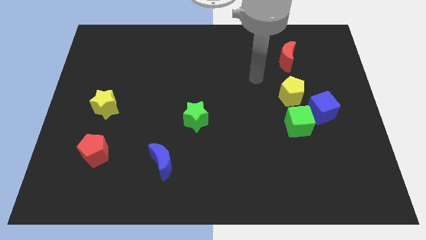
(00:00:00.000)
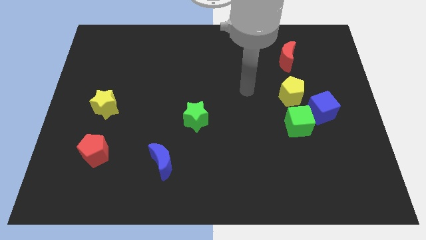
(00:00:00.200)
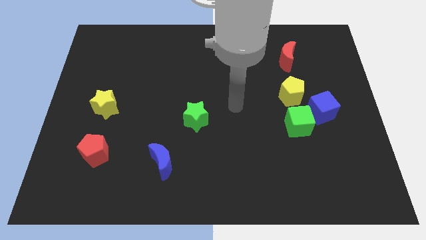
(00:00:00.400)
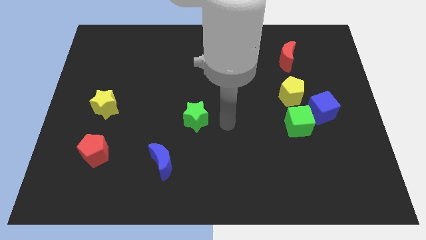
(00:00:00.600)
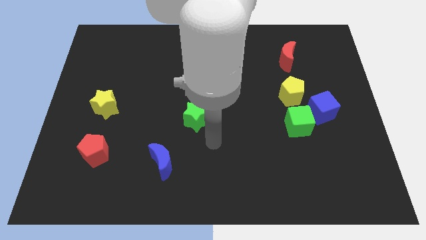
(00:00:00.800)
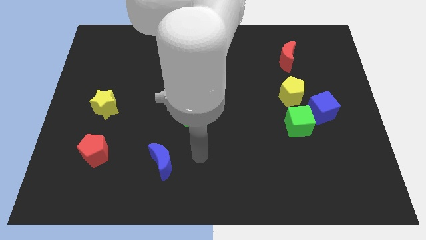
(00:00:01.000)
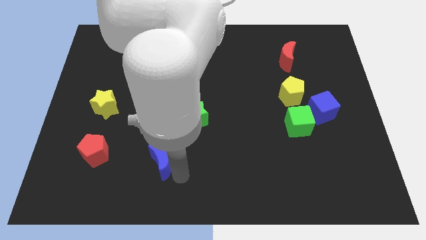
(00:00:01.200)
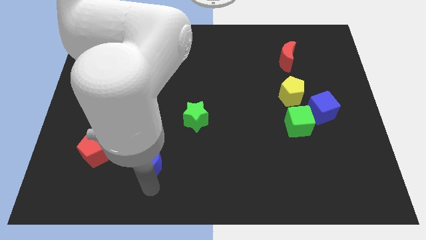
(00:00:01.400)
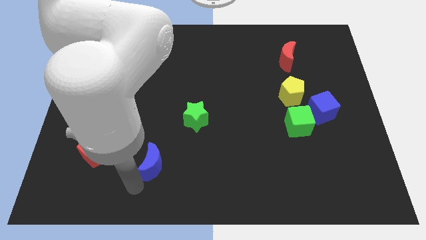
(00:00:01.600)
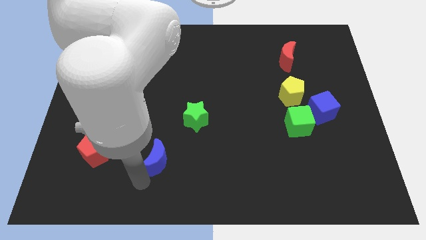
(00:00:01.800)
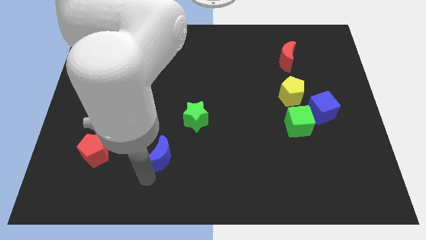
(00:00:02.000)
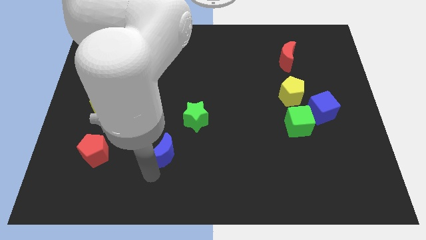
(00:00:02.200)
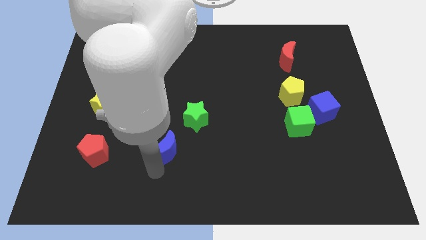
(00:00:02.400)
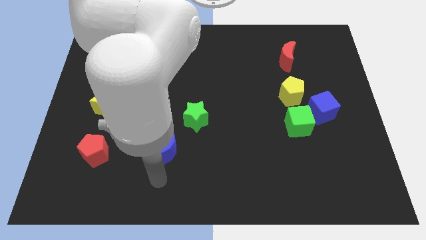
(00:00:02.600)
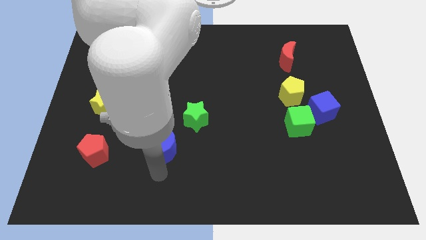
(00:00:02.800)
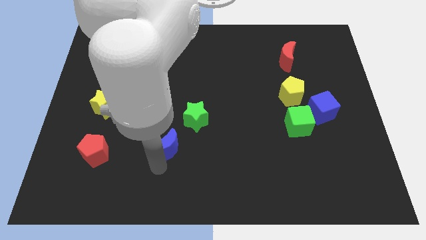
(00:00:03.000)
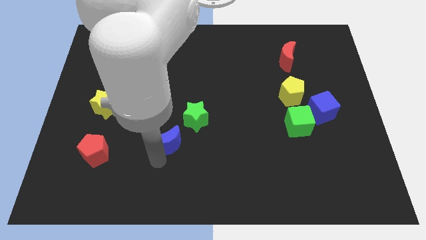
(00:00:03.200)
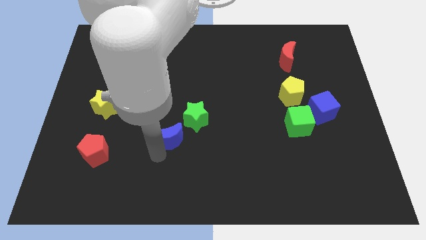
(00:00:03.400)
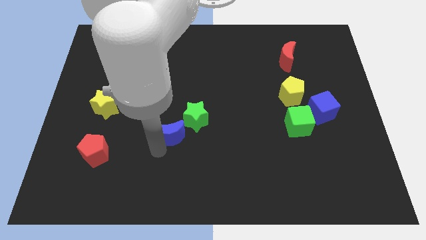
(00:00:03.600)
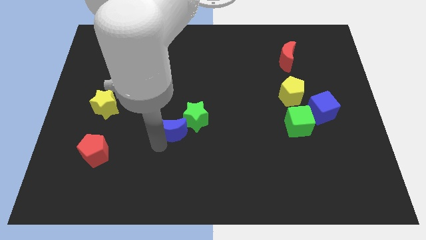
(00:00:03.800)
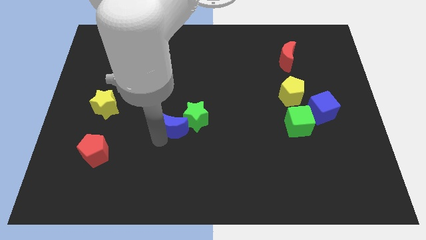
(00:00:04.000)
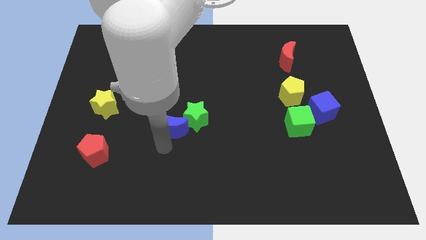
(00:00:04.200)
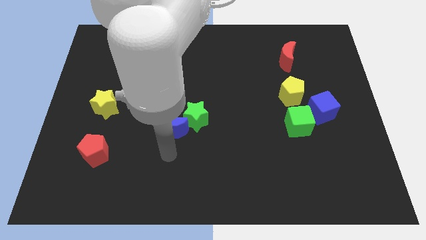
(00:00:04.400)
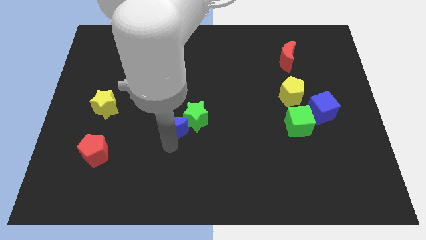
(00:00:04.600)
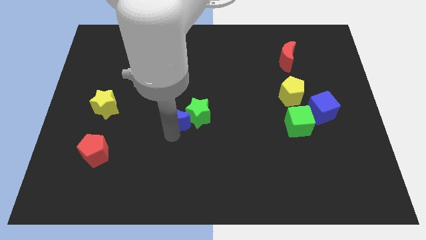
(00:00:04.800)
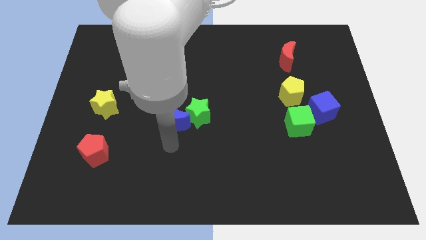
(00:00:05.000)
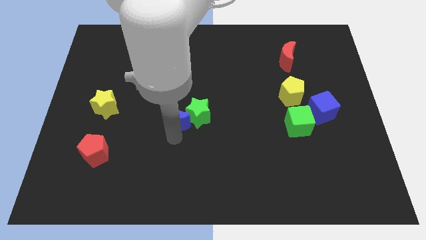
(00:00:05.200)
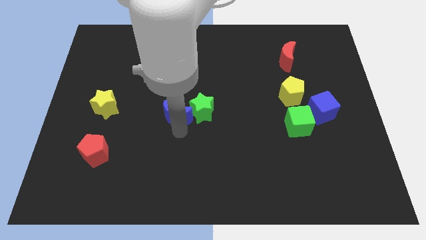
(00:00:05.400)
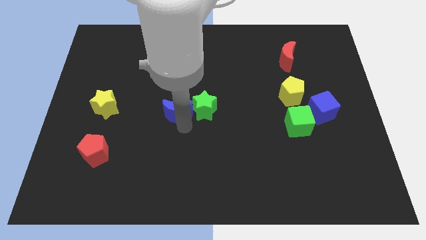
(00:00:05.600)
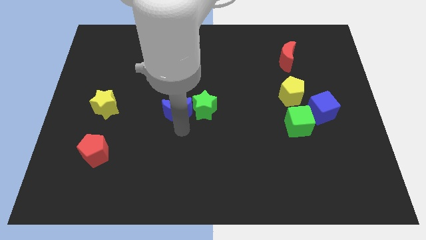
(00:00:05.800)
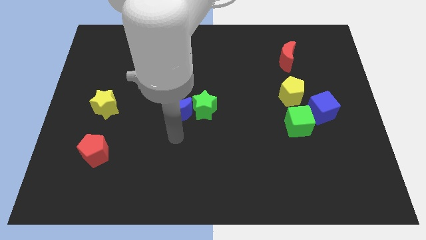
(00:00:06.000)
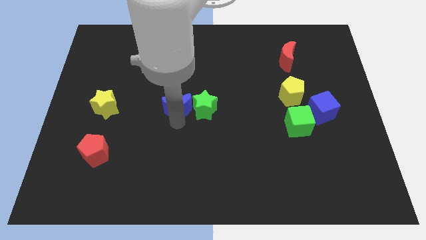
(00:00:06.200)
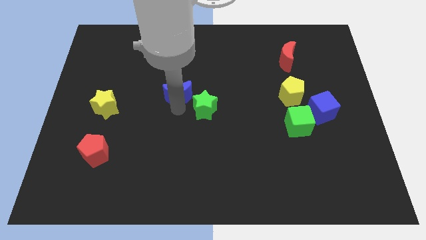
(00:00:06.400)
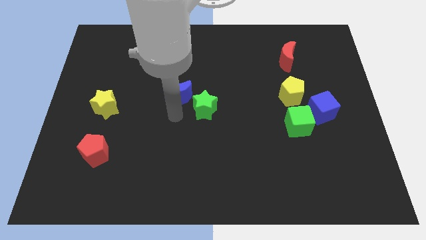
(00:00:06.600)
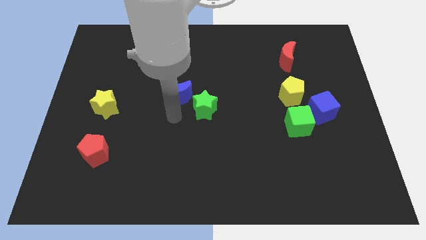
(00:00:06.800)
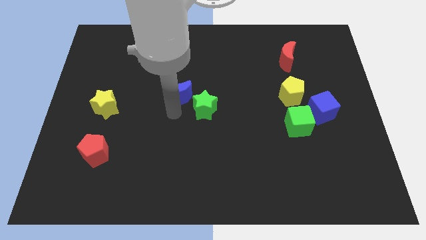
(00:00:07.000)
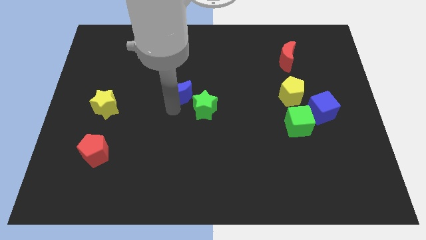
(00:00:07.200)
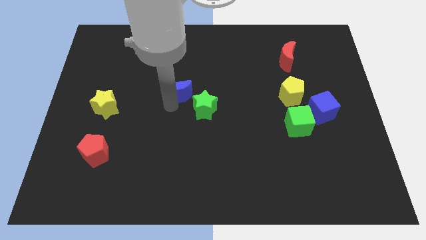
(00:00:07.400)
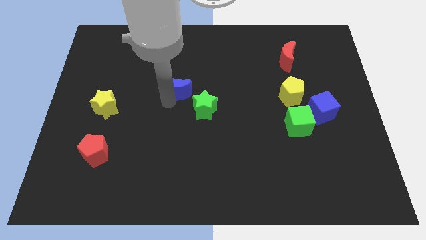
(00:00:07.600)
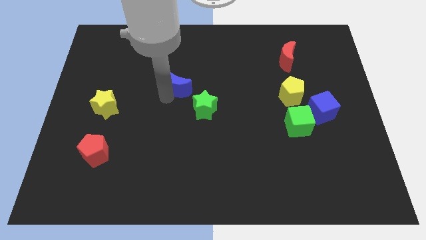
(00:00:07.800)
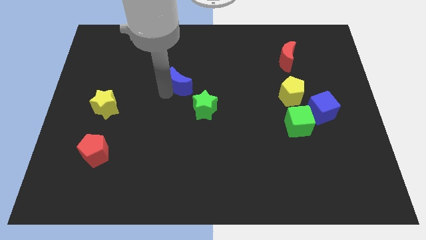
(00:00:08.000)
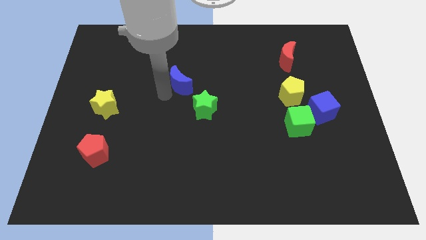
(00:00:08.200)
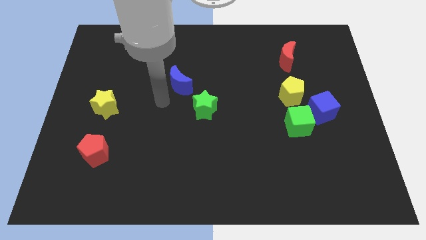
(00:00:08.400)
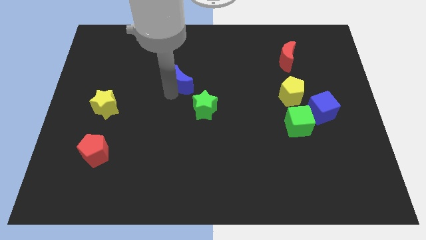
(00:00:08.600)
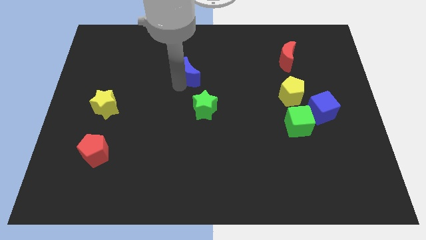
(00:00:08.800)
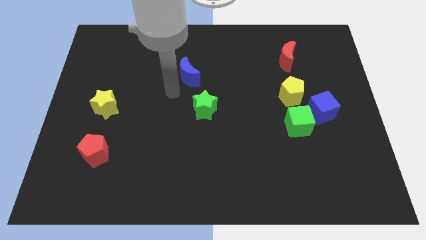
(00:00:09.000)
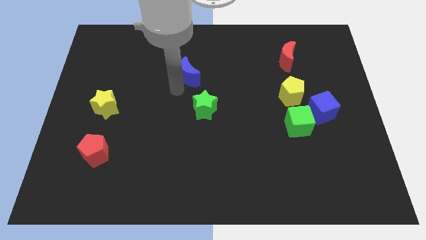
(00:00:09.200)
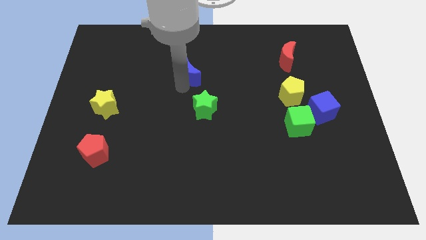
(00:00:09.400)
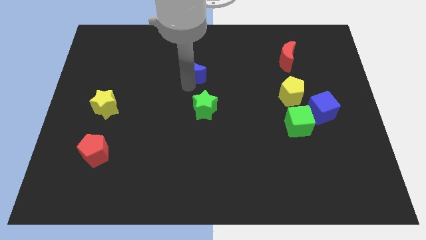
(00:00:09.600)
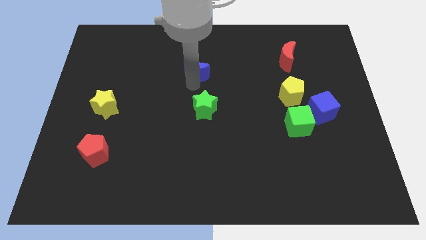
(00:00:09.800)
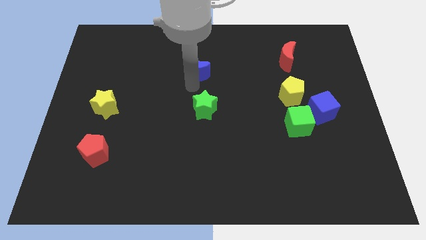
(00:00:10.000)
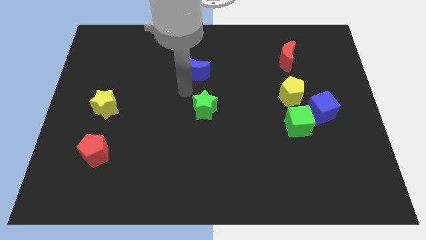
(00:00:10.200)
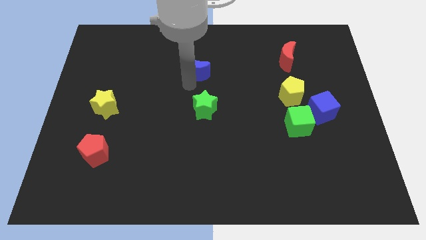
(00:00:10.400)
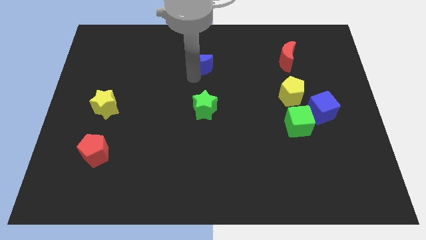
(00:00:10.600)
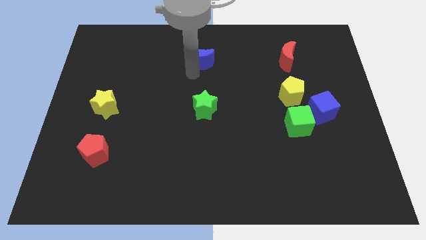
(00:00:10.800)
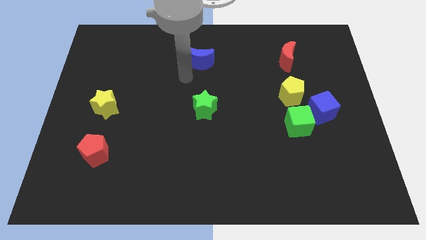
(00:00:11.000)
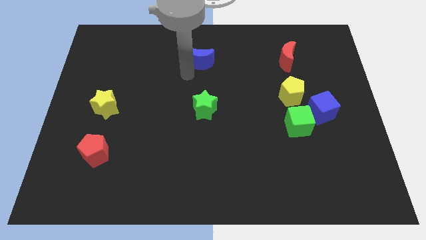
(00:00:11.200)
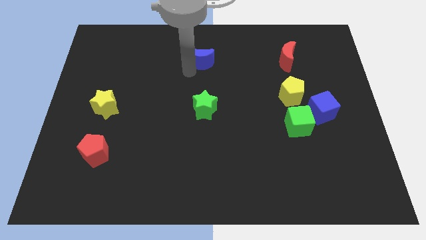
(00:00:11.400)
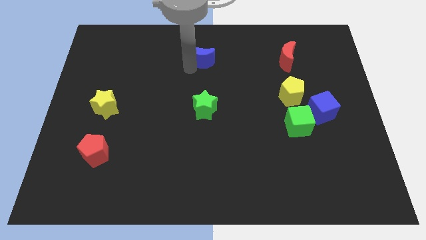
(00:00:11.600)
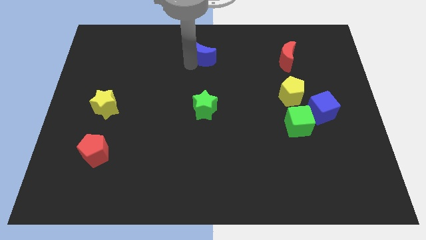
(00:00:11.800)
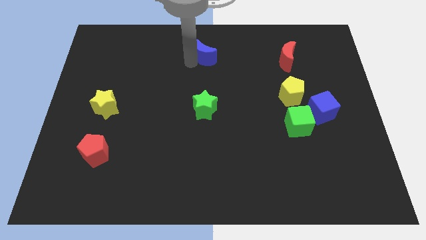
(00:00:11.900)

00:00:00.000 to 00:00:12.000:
move the blue moon to the top

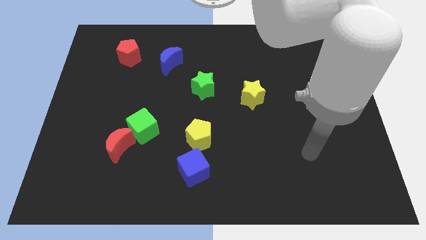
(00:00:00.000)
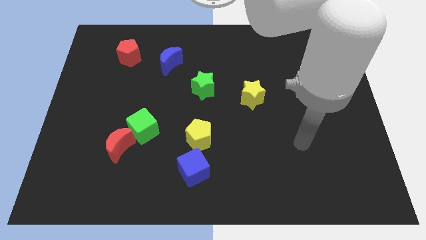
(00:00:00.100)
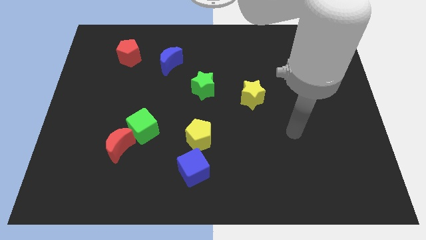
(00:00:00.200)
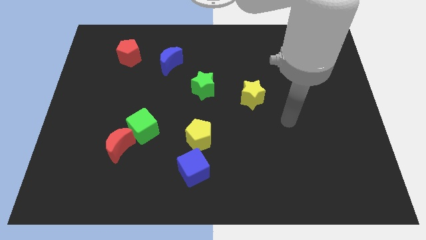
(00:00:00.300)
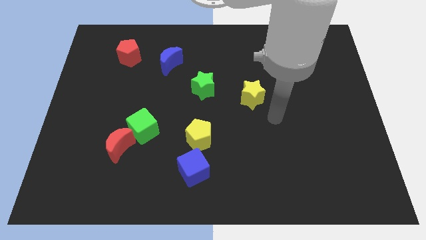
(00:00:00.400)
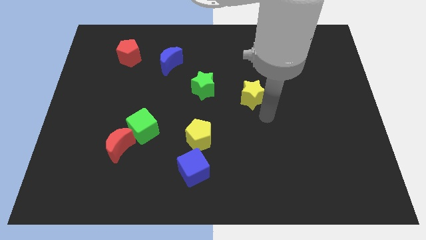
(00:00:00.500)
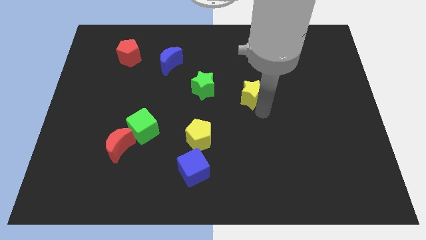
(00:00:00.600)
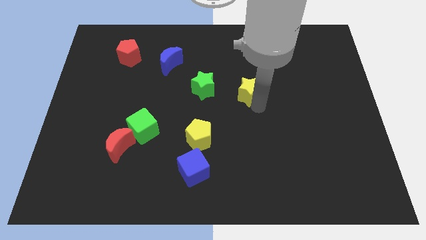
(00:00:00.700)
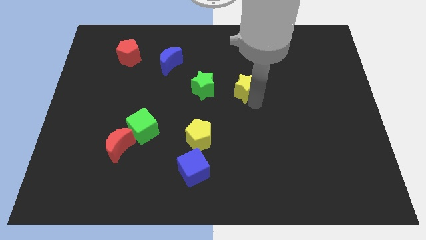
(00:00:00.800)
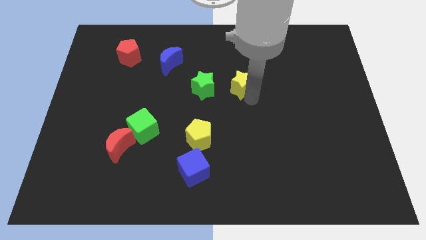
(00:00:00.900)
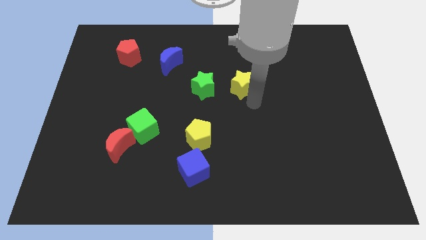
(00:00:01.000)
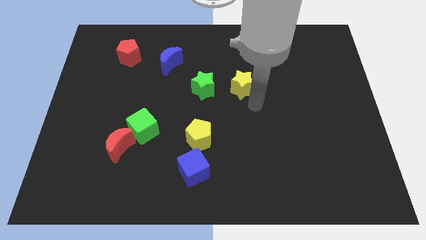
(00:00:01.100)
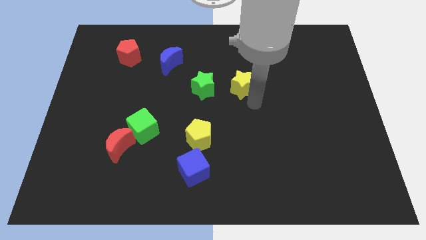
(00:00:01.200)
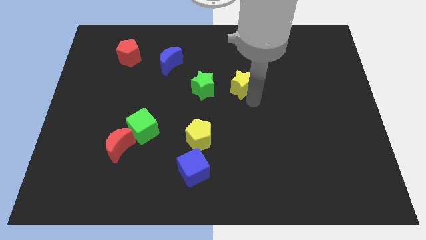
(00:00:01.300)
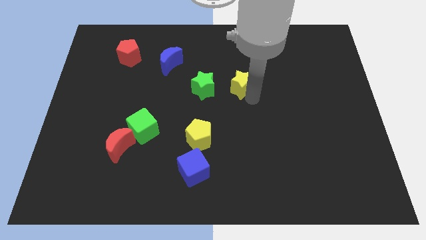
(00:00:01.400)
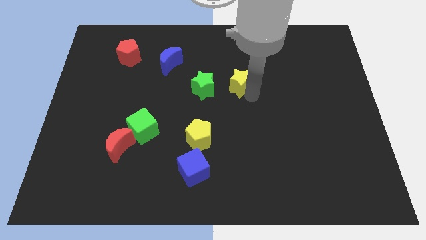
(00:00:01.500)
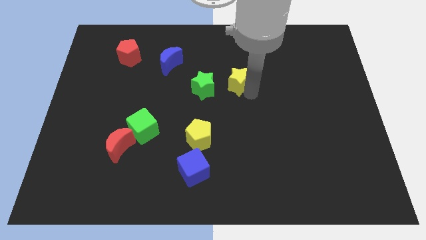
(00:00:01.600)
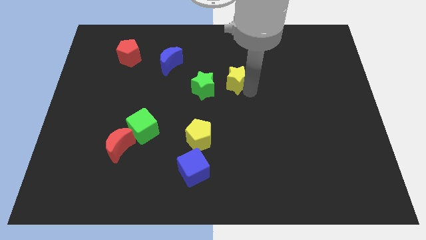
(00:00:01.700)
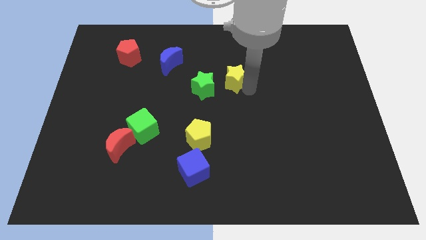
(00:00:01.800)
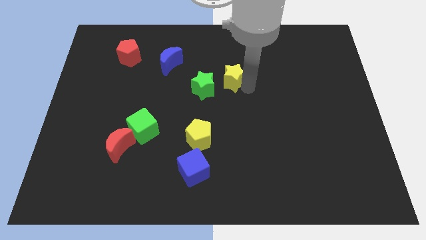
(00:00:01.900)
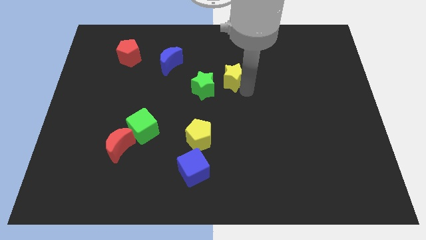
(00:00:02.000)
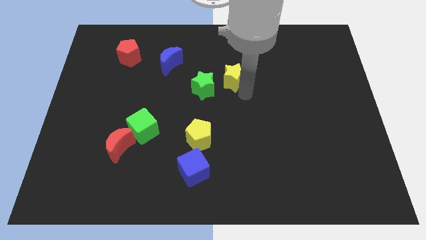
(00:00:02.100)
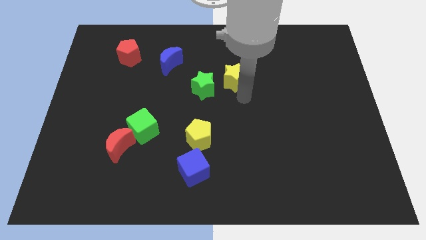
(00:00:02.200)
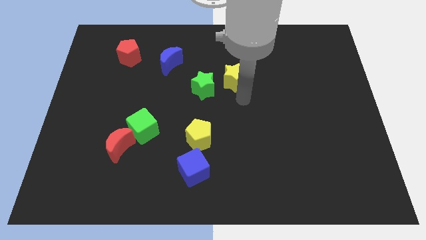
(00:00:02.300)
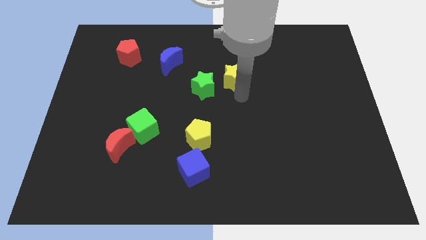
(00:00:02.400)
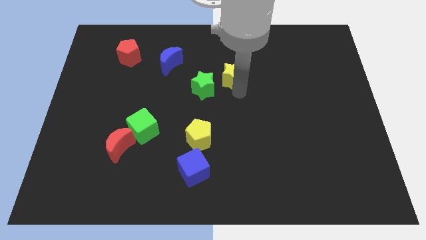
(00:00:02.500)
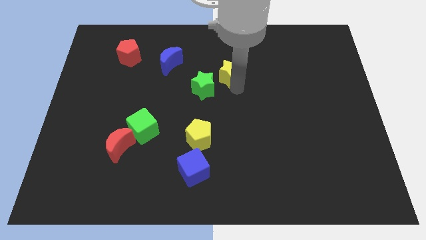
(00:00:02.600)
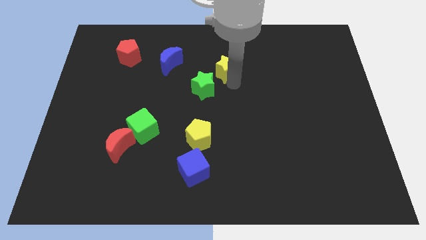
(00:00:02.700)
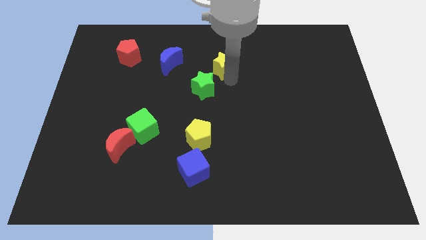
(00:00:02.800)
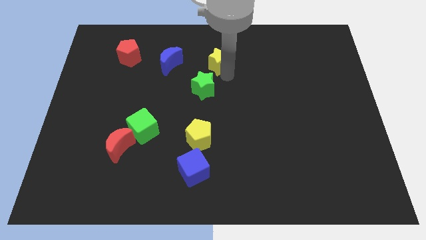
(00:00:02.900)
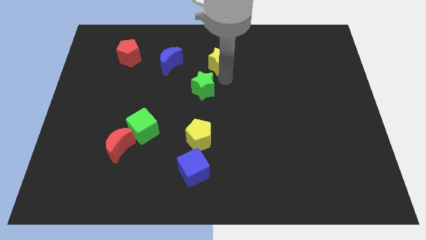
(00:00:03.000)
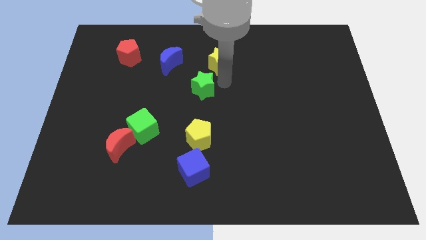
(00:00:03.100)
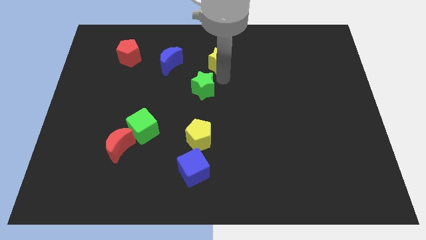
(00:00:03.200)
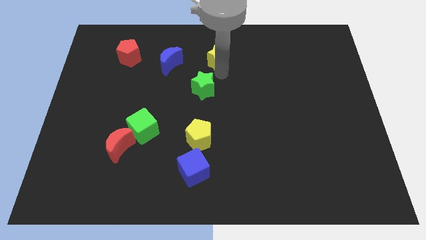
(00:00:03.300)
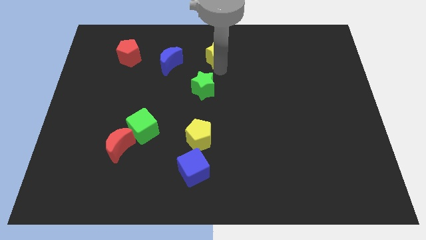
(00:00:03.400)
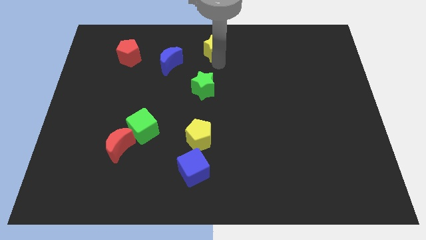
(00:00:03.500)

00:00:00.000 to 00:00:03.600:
slide the yellow star to the towards your base
